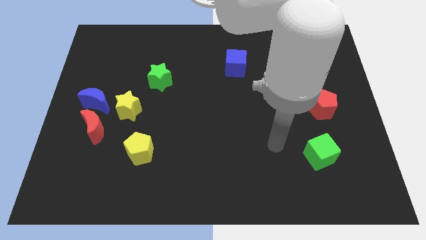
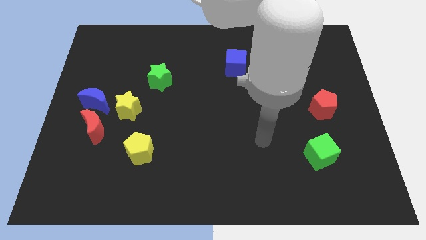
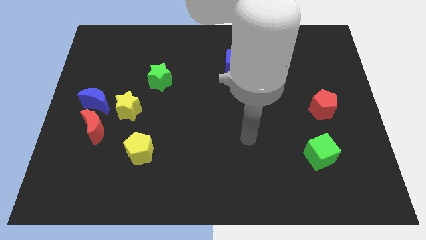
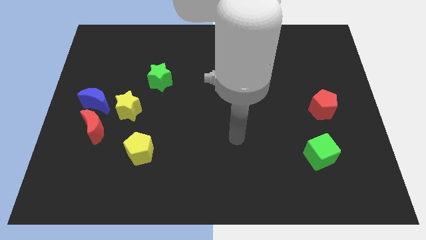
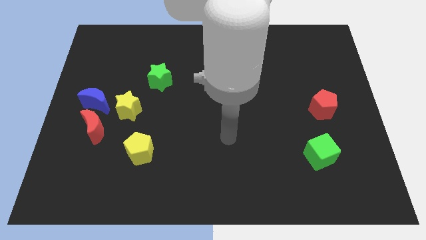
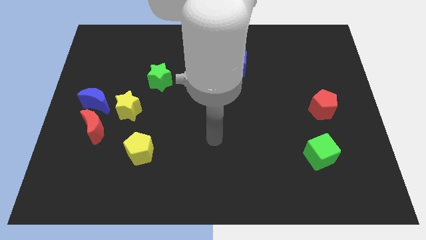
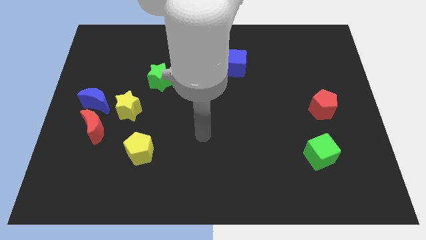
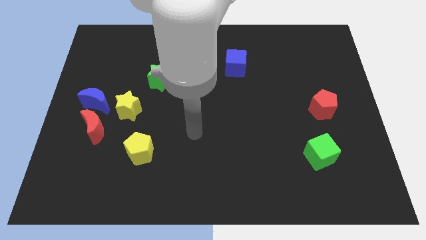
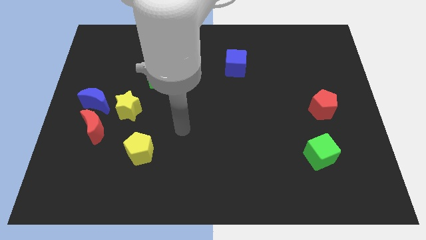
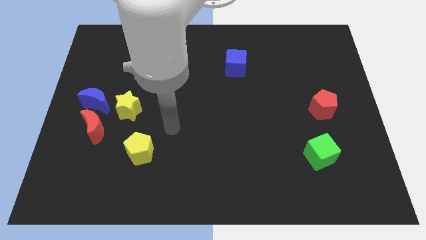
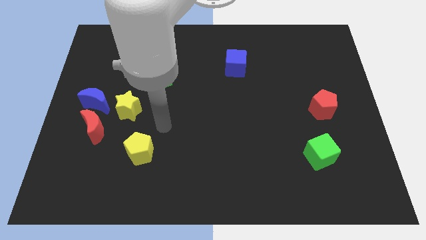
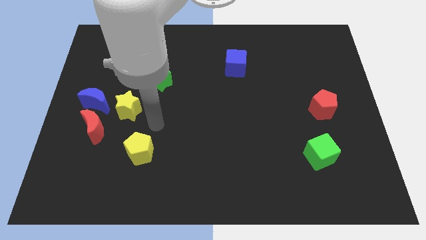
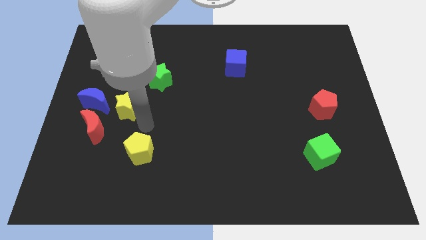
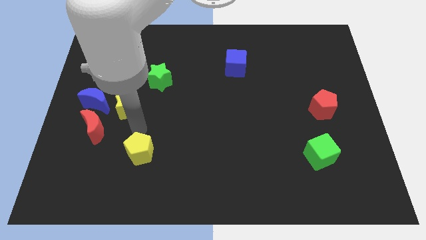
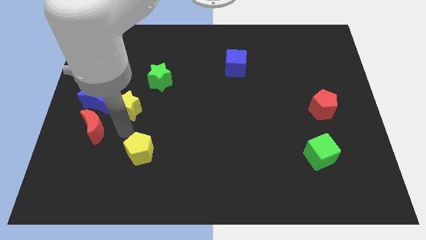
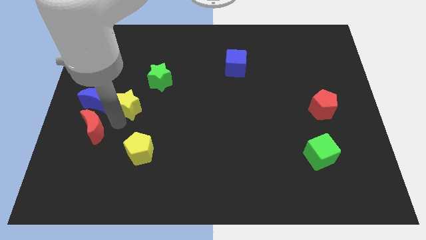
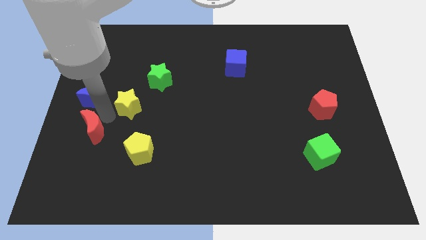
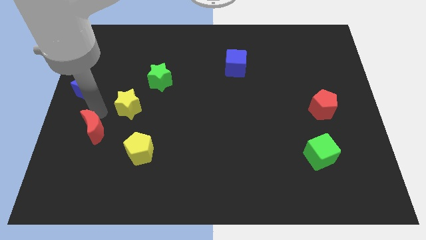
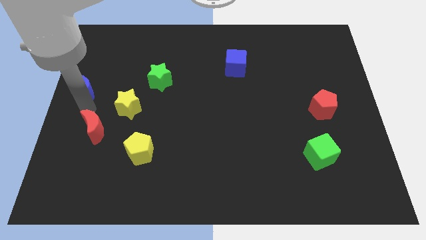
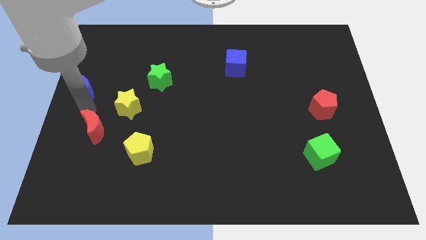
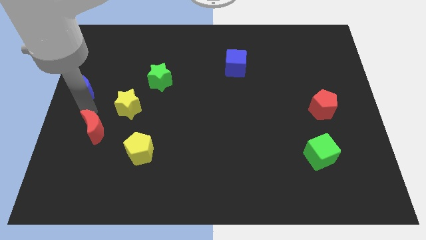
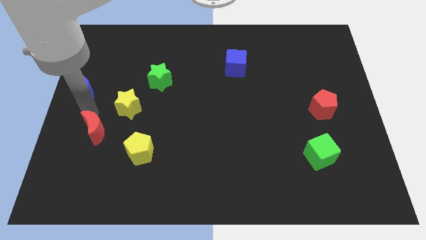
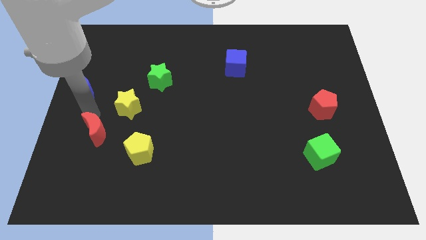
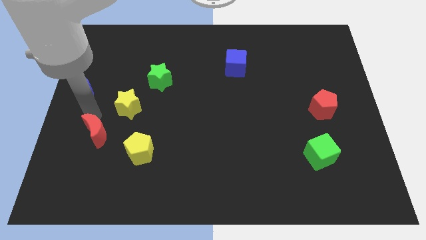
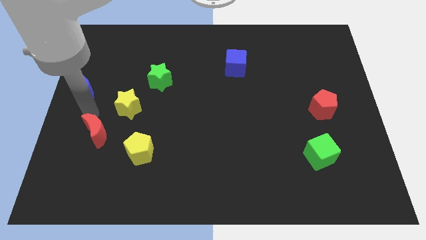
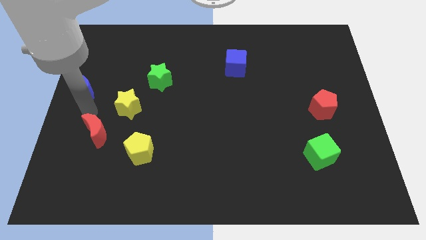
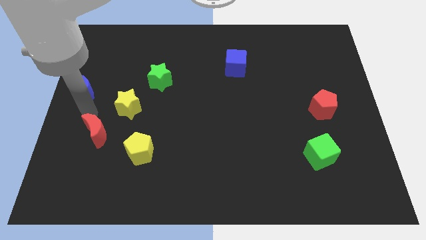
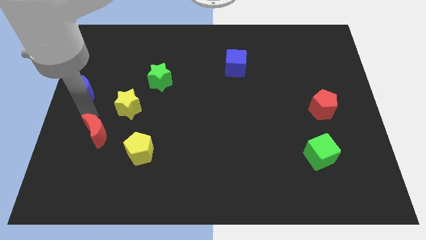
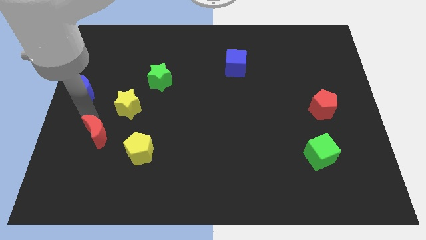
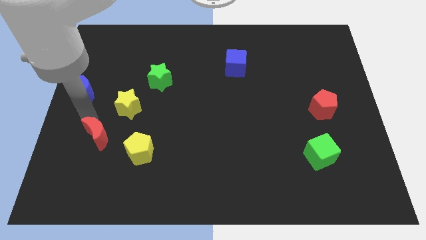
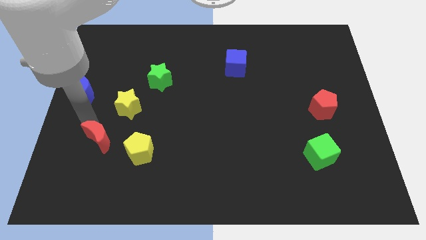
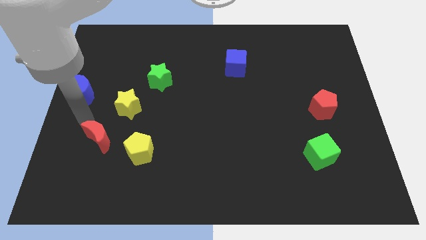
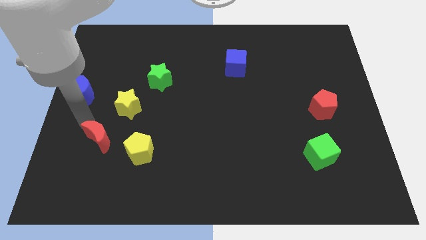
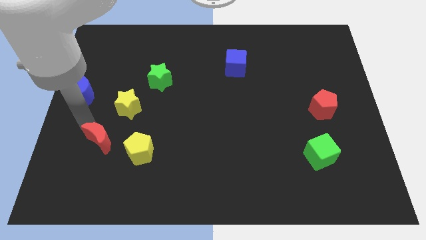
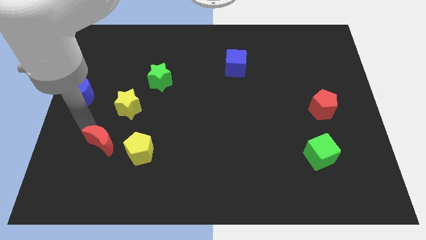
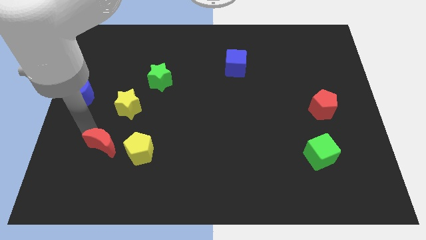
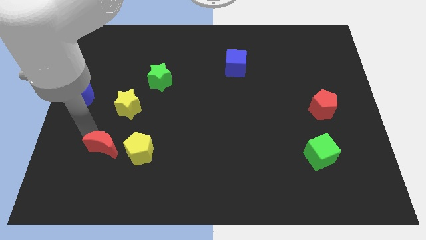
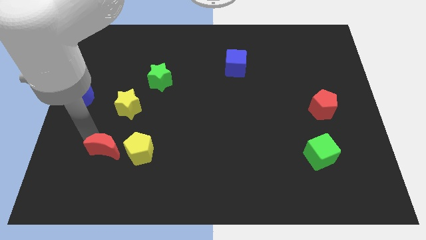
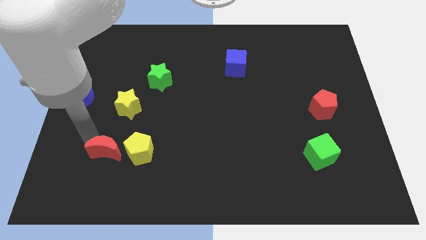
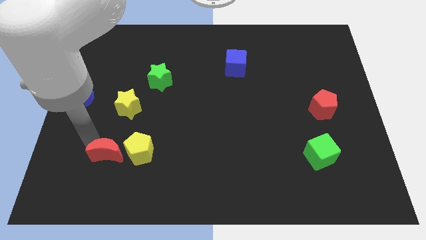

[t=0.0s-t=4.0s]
slide the red moon a little down and then right

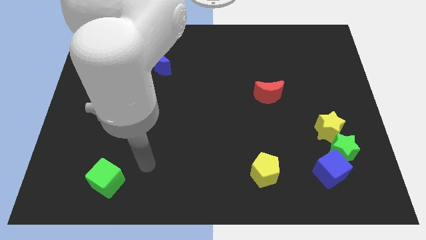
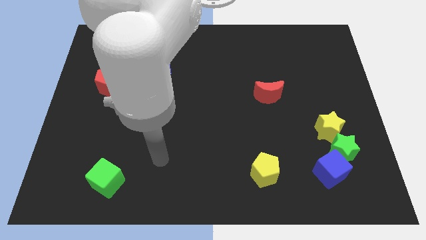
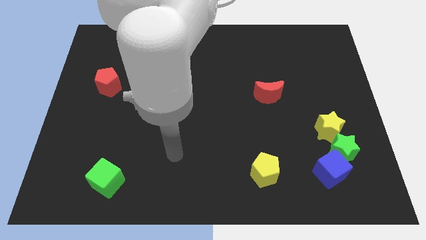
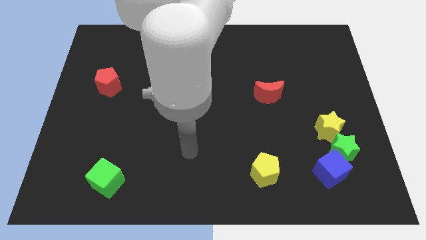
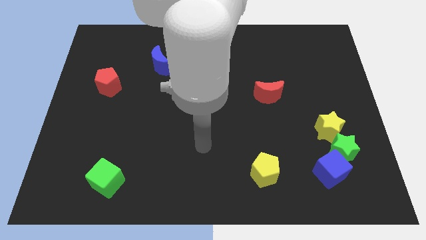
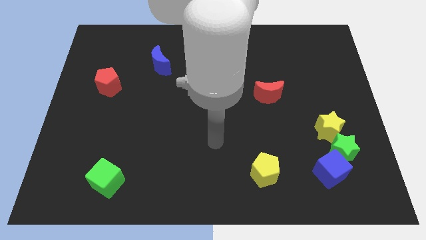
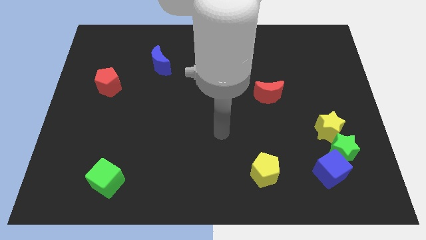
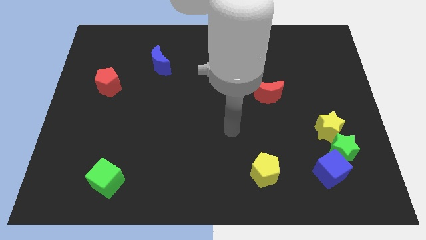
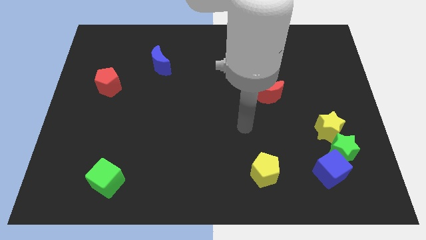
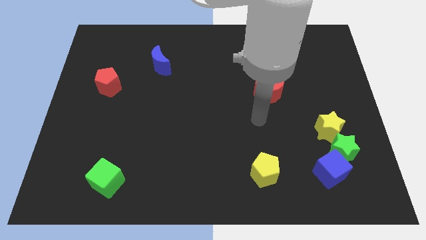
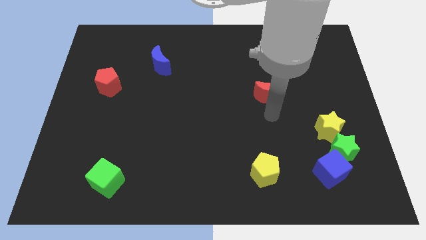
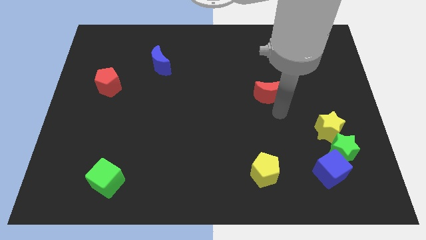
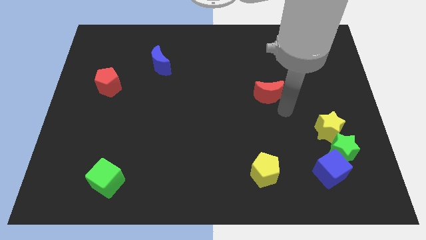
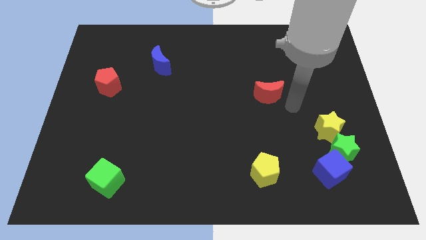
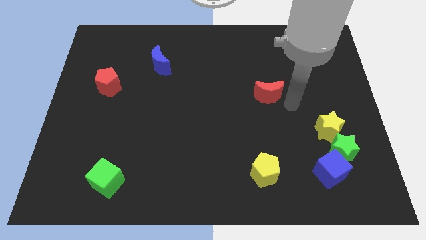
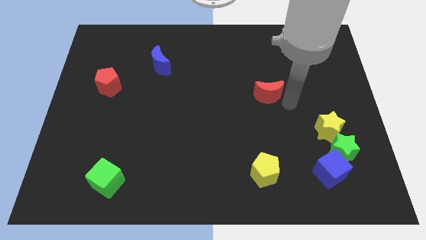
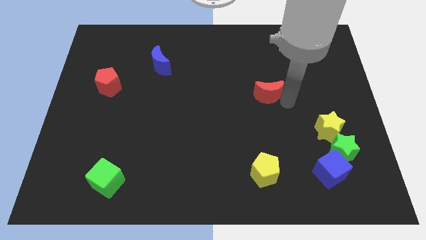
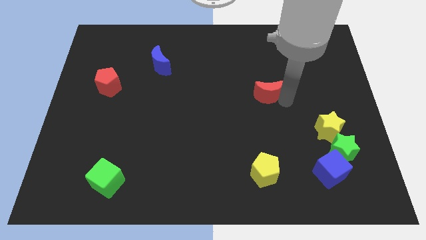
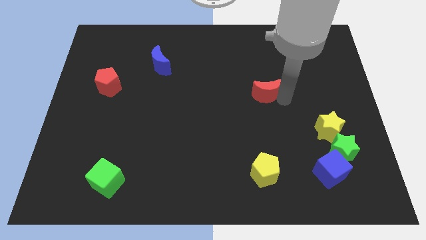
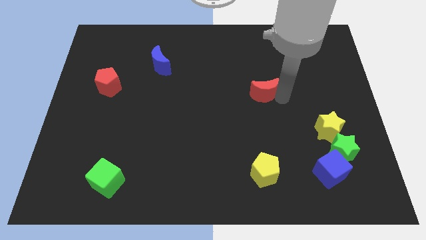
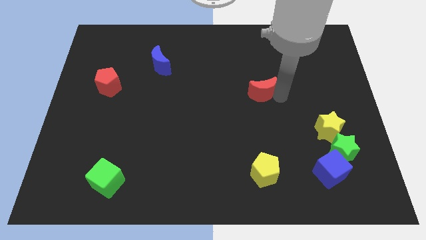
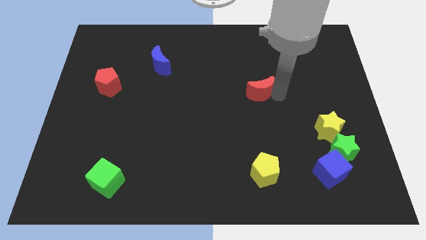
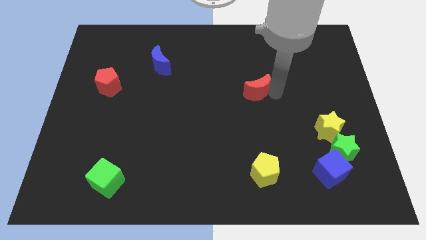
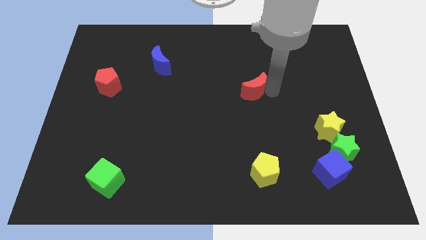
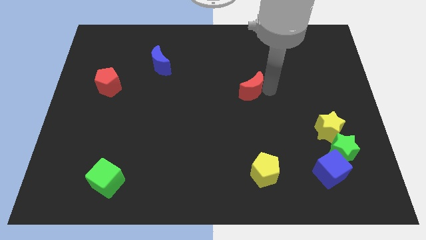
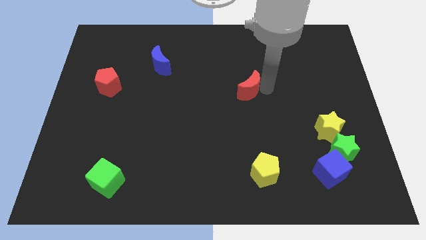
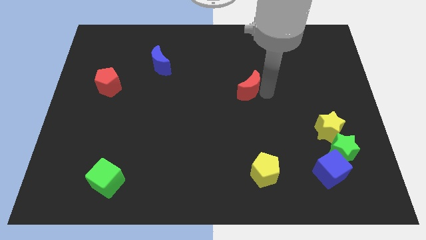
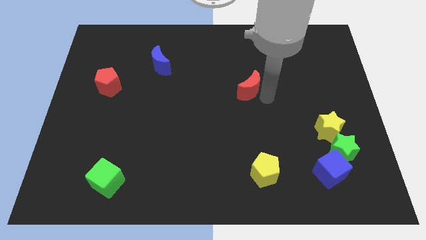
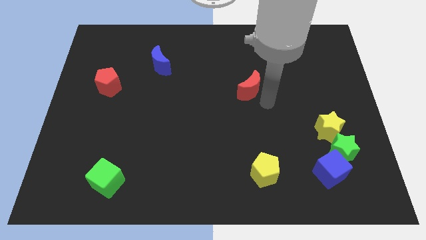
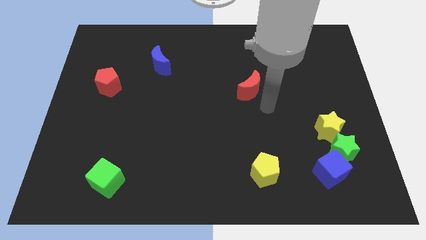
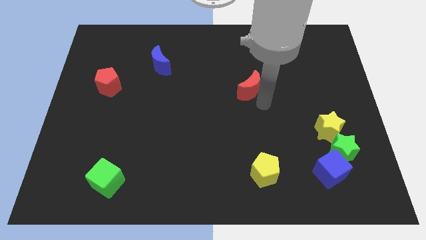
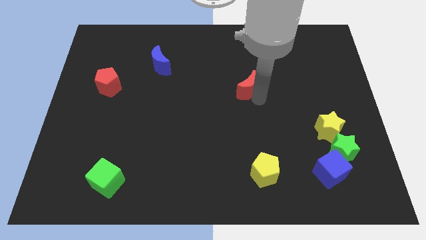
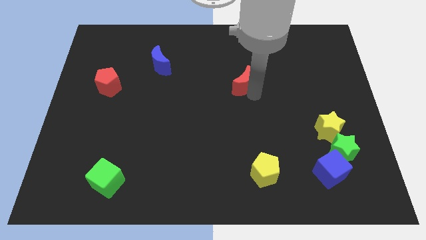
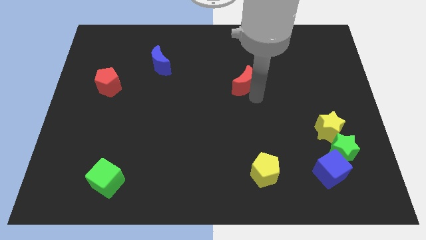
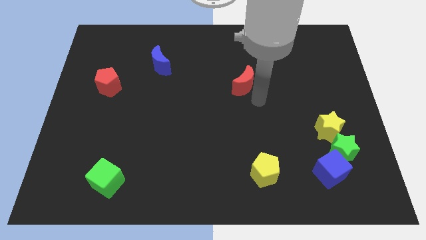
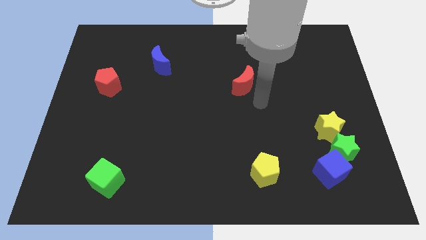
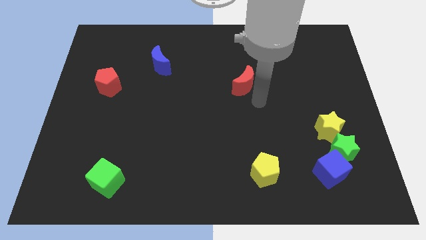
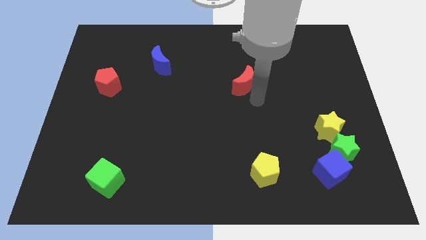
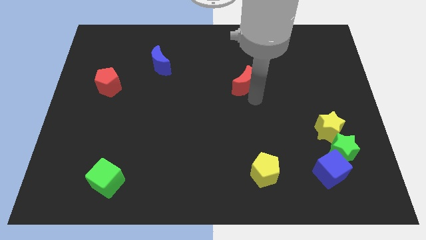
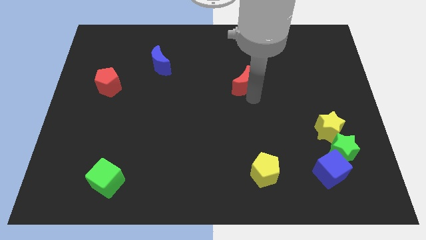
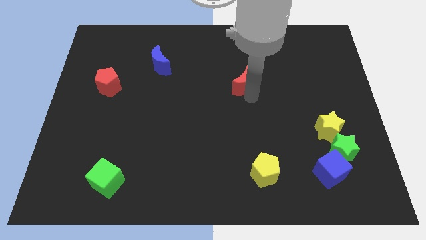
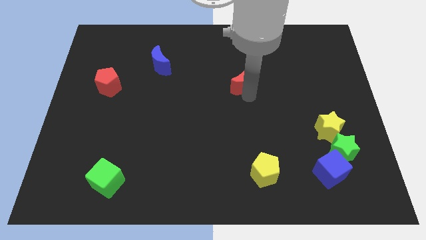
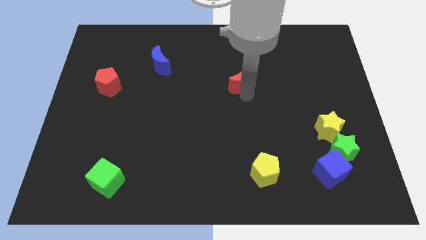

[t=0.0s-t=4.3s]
push the red moon up and then to the left slightly
